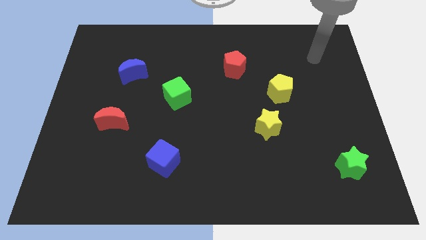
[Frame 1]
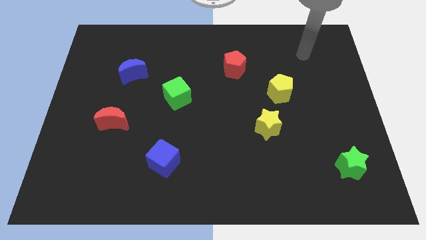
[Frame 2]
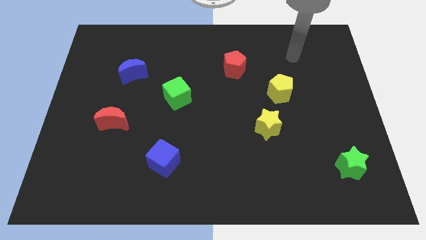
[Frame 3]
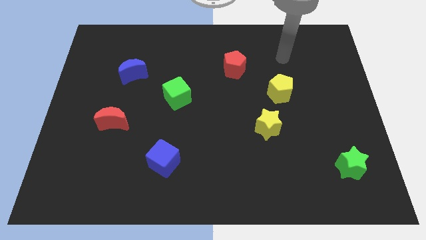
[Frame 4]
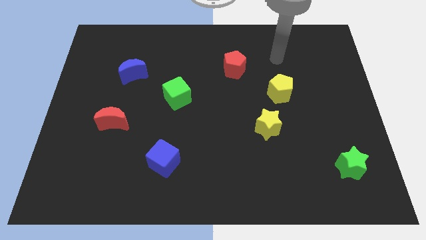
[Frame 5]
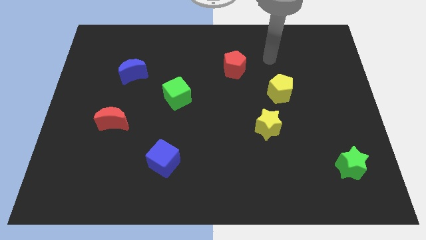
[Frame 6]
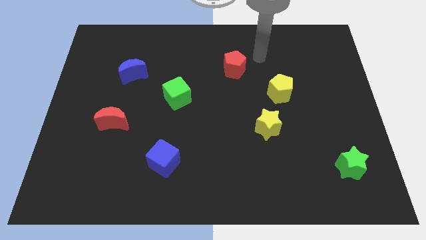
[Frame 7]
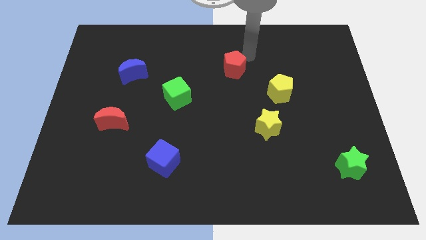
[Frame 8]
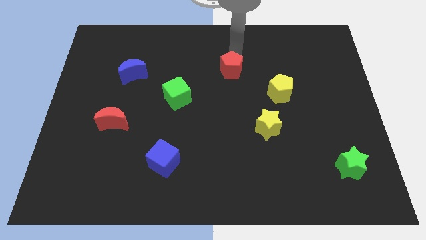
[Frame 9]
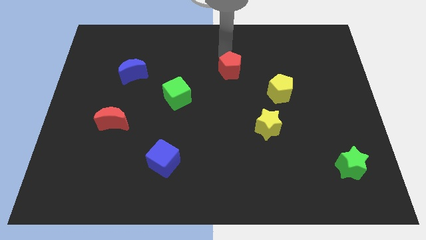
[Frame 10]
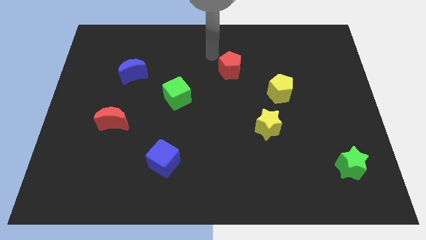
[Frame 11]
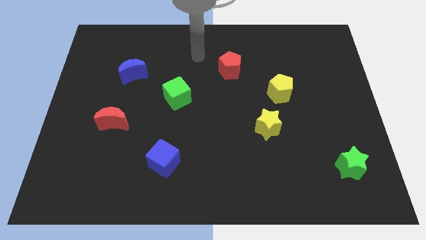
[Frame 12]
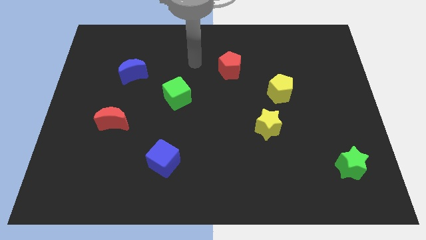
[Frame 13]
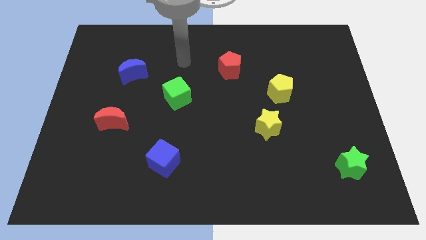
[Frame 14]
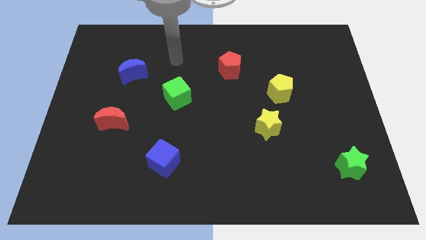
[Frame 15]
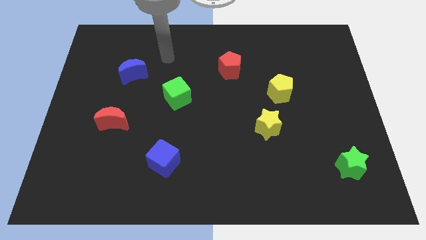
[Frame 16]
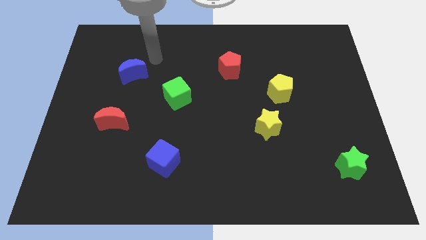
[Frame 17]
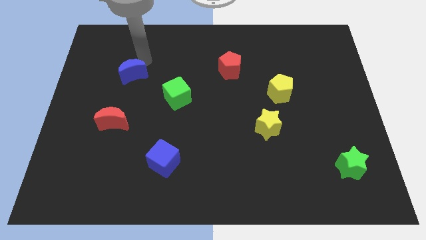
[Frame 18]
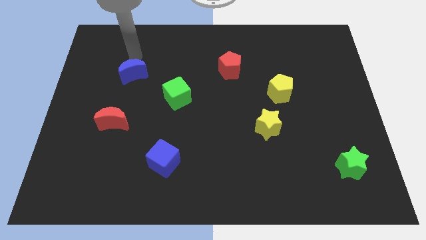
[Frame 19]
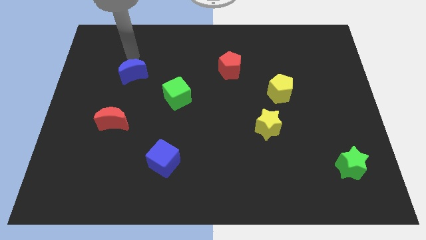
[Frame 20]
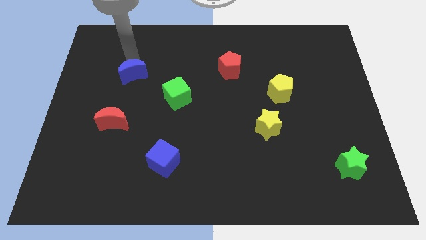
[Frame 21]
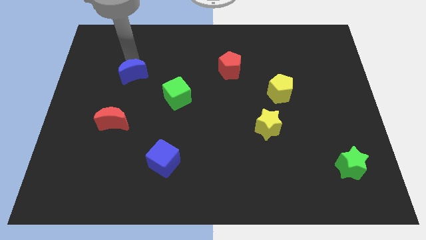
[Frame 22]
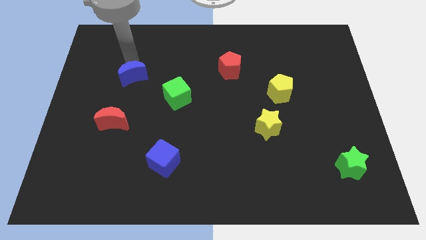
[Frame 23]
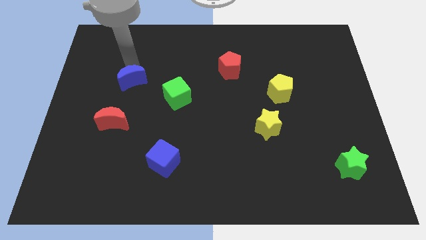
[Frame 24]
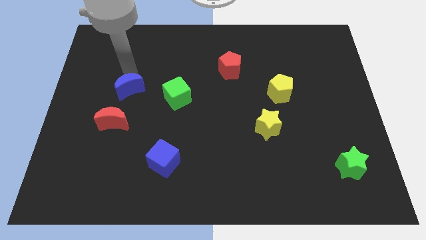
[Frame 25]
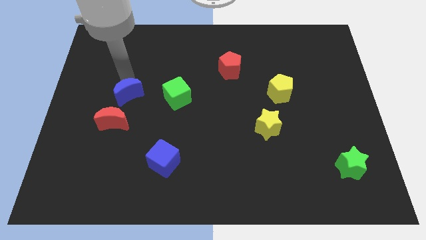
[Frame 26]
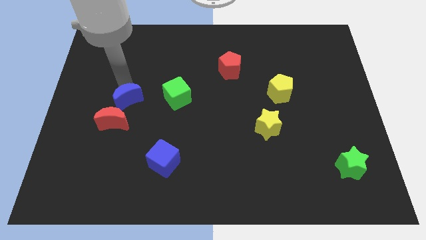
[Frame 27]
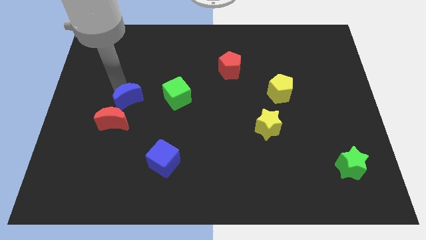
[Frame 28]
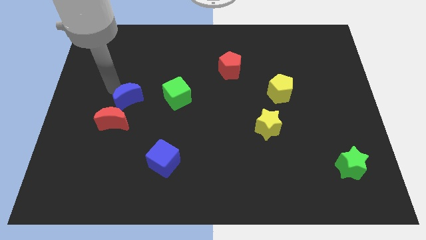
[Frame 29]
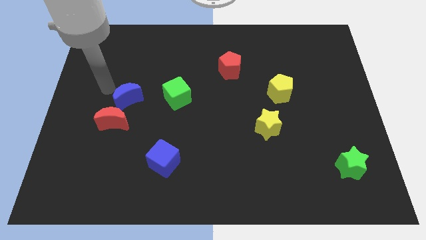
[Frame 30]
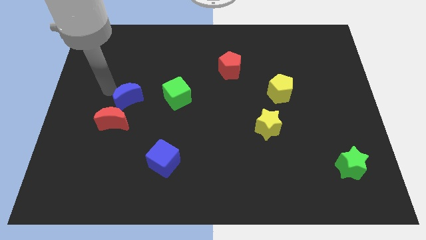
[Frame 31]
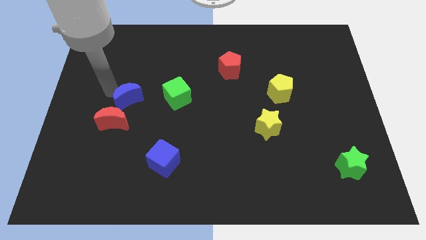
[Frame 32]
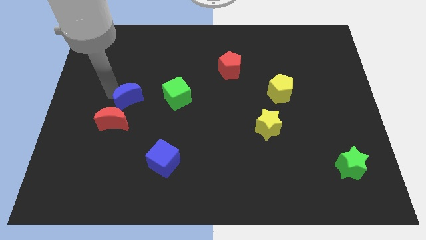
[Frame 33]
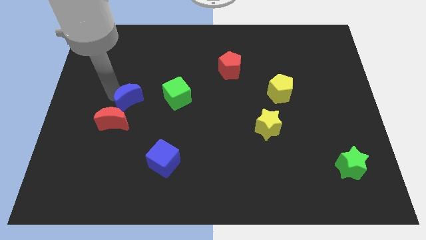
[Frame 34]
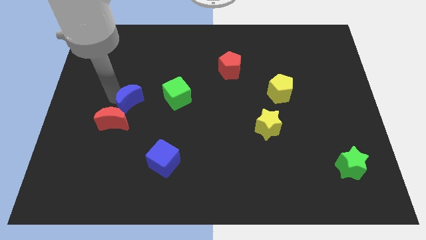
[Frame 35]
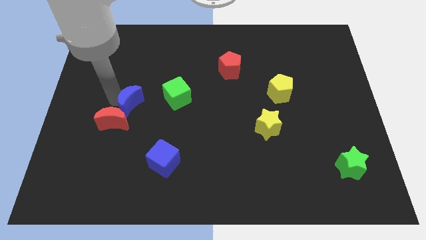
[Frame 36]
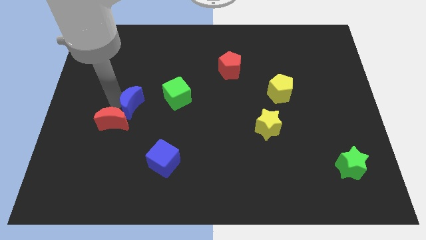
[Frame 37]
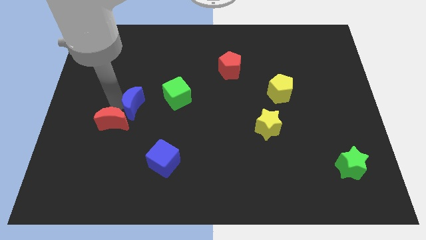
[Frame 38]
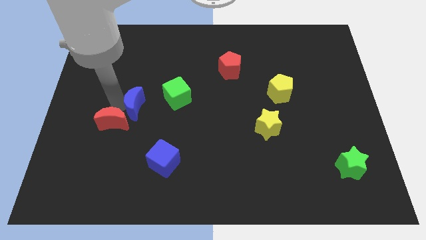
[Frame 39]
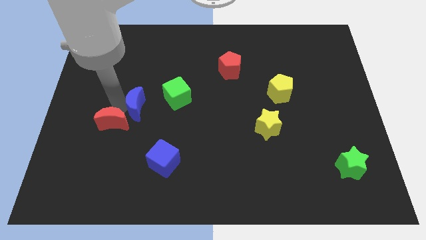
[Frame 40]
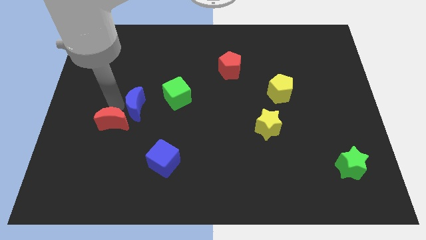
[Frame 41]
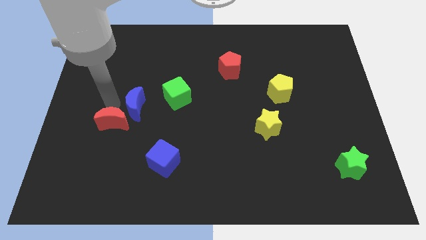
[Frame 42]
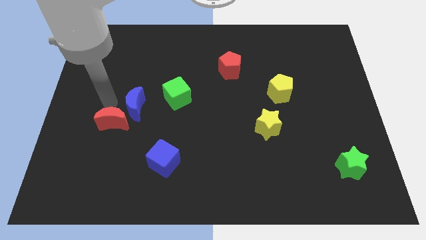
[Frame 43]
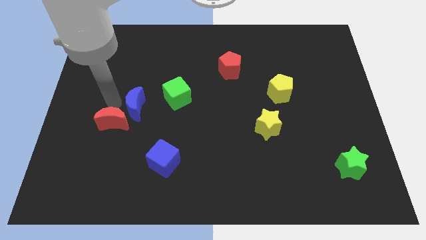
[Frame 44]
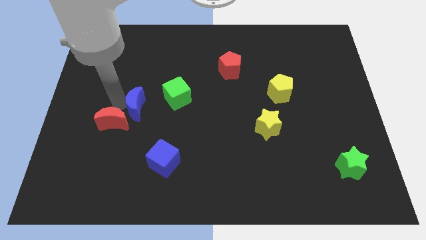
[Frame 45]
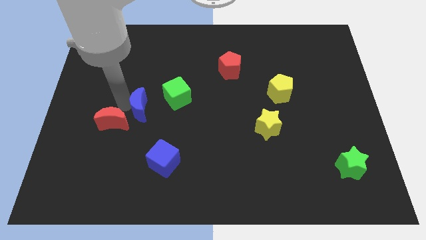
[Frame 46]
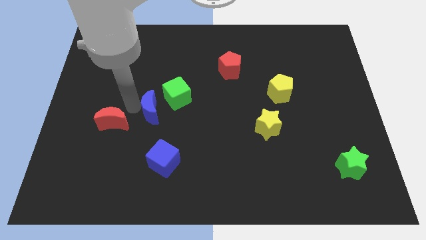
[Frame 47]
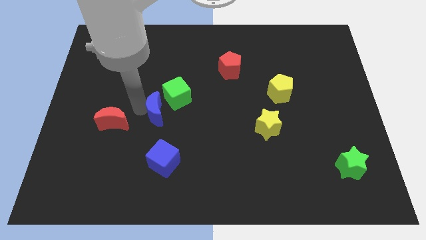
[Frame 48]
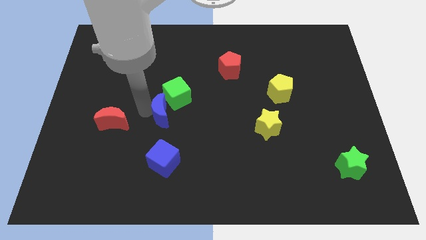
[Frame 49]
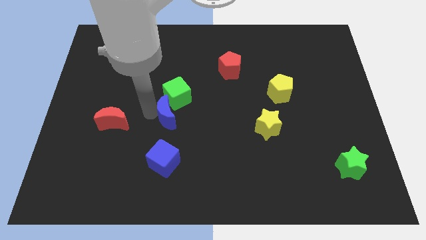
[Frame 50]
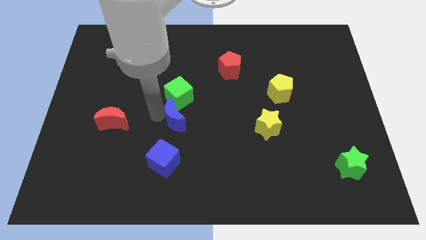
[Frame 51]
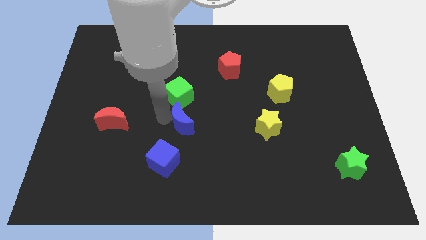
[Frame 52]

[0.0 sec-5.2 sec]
move the blue moon to the bottom right of the green cube

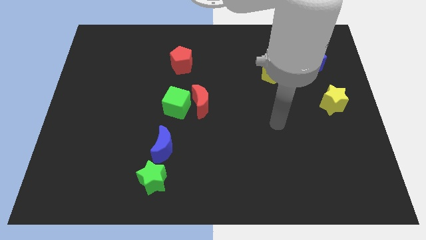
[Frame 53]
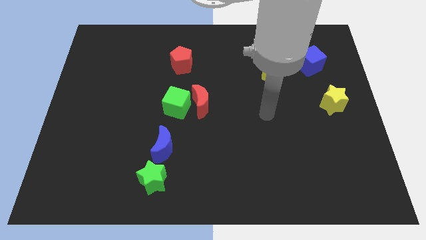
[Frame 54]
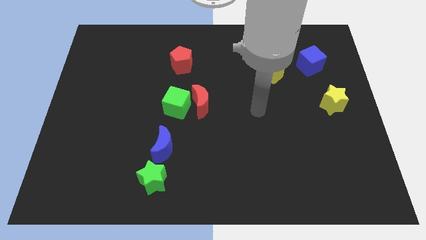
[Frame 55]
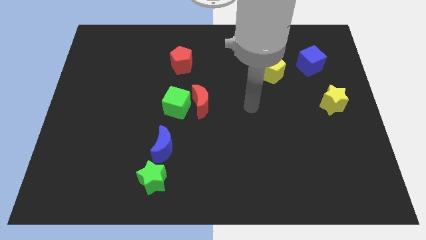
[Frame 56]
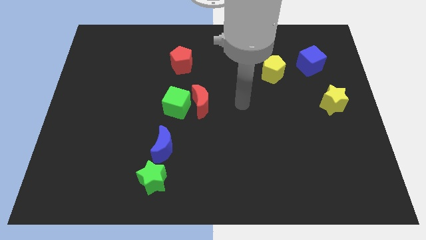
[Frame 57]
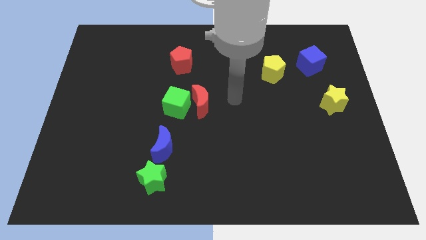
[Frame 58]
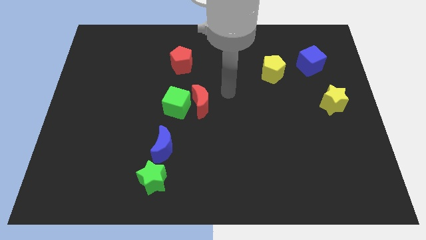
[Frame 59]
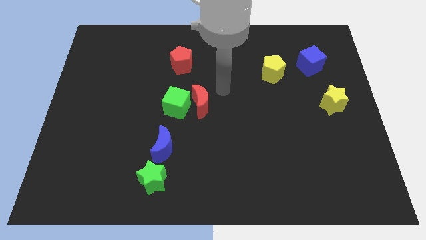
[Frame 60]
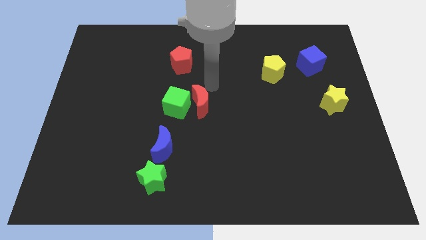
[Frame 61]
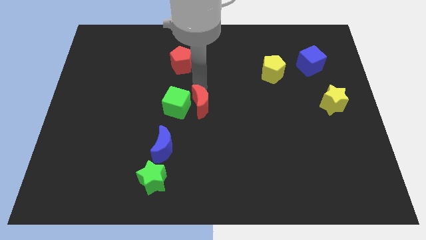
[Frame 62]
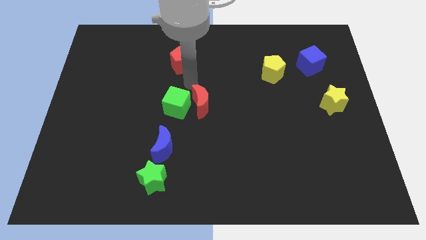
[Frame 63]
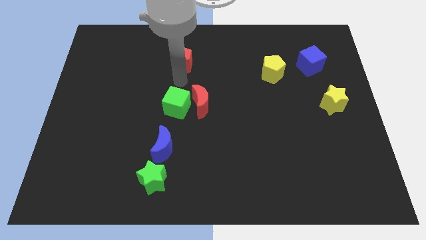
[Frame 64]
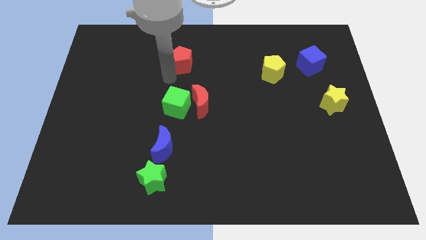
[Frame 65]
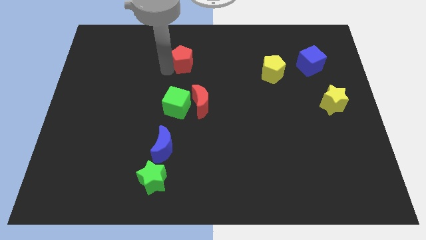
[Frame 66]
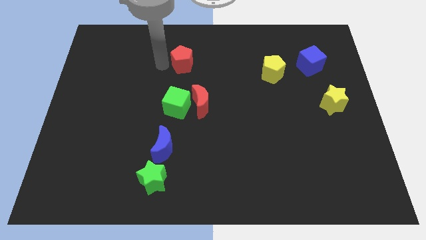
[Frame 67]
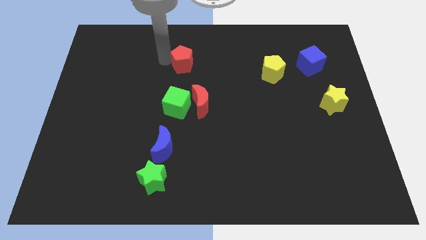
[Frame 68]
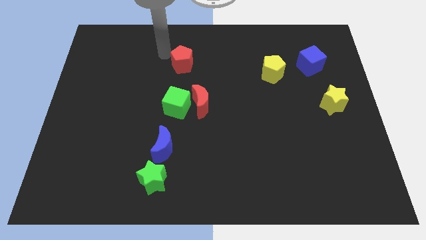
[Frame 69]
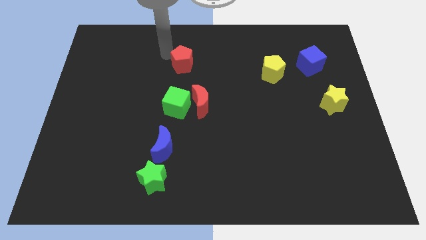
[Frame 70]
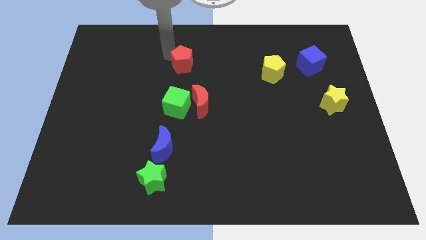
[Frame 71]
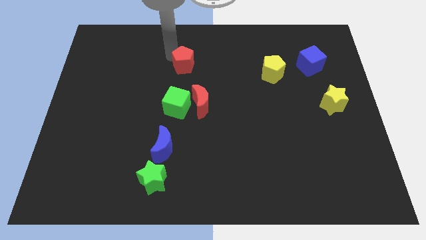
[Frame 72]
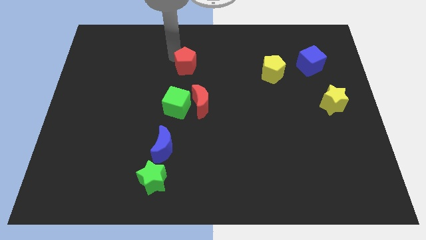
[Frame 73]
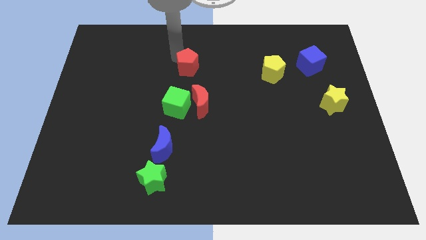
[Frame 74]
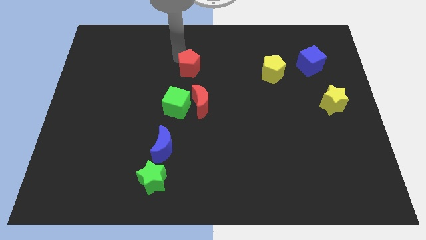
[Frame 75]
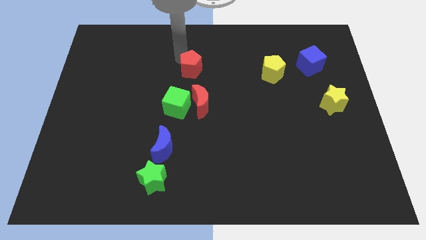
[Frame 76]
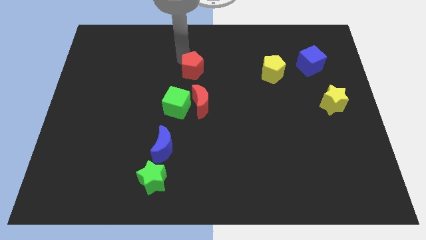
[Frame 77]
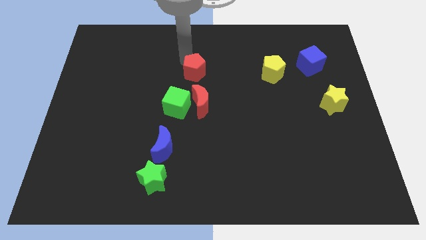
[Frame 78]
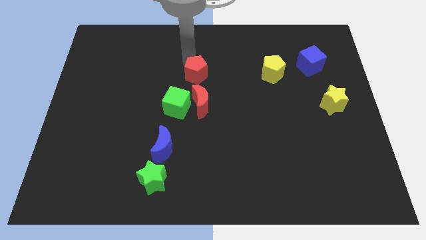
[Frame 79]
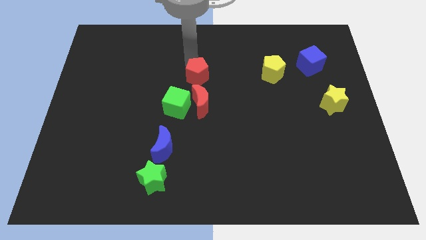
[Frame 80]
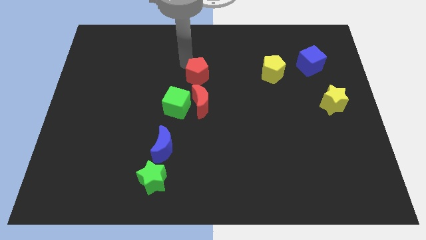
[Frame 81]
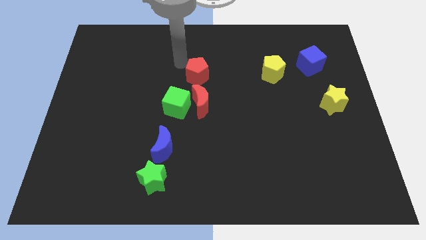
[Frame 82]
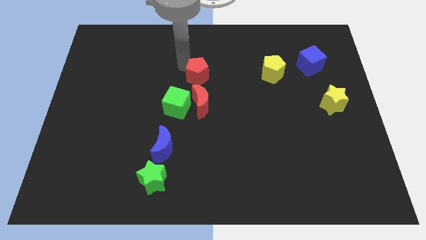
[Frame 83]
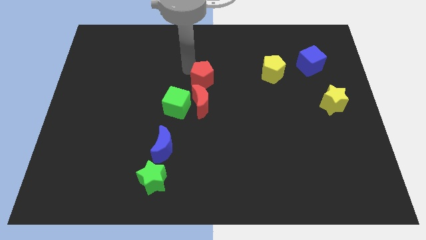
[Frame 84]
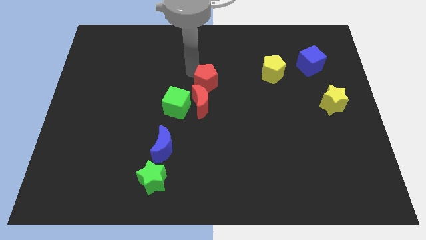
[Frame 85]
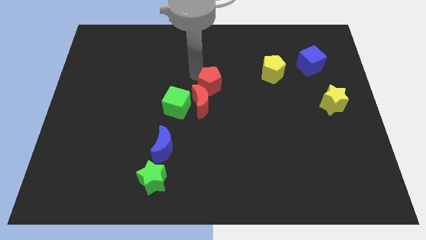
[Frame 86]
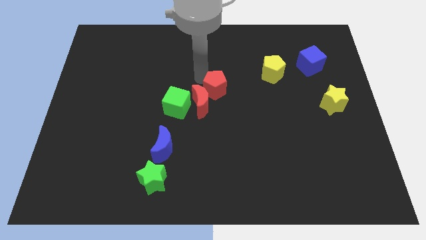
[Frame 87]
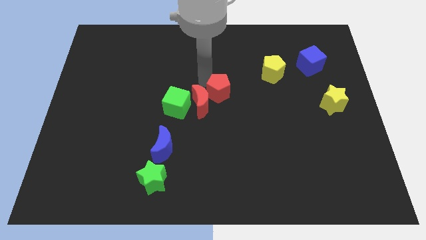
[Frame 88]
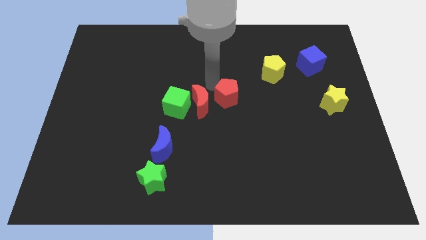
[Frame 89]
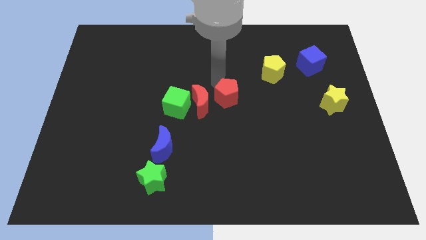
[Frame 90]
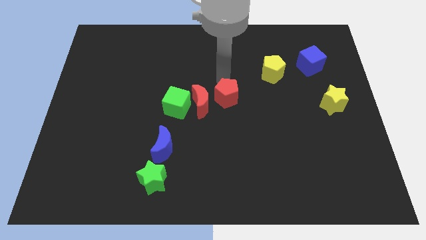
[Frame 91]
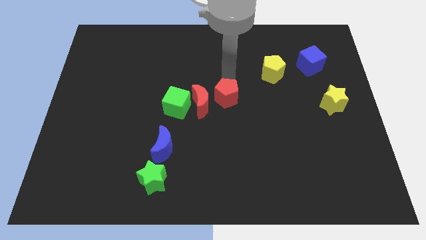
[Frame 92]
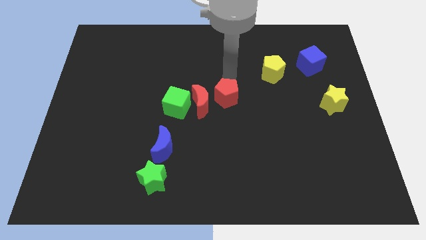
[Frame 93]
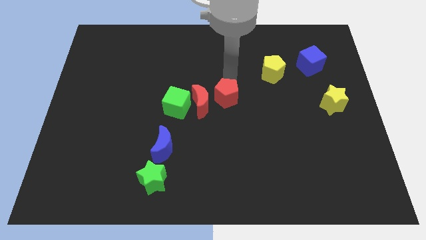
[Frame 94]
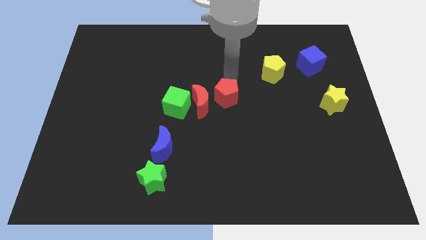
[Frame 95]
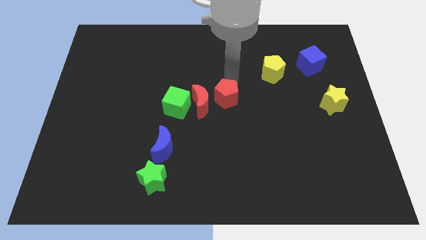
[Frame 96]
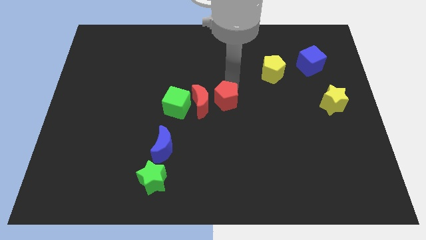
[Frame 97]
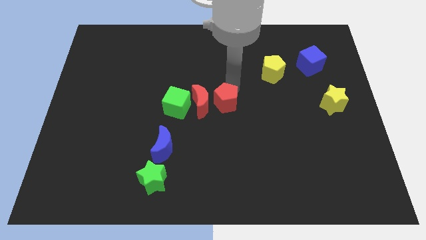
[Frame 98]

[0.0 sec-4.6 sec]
move the red pentagon diagonally down and to the right of the red moon
